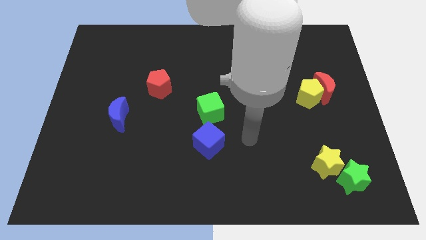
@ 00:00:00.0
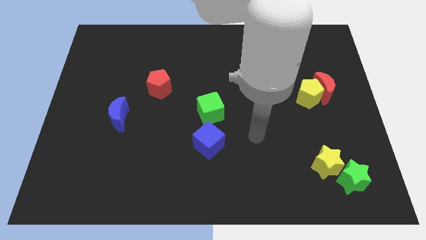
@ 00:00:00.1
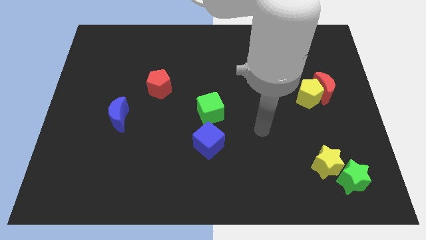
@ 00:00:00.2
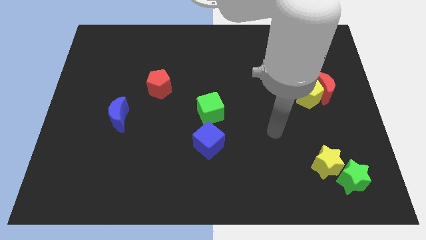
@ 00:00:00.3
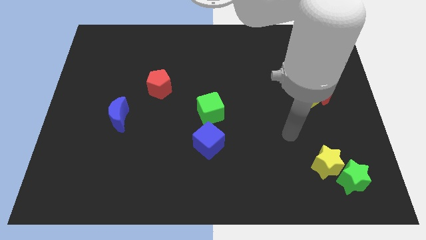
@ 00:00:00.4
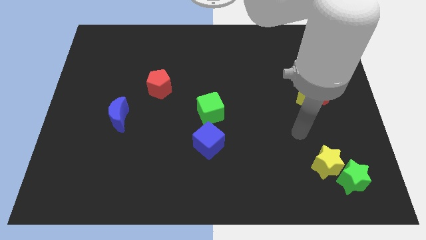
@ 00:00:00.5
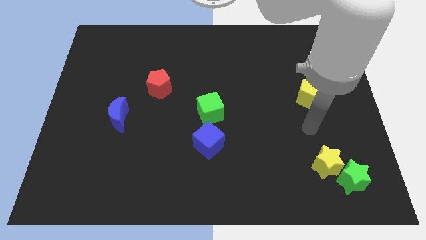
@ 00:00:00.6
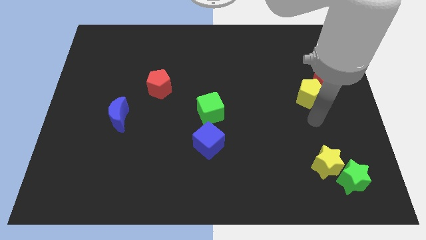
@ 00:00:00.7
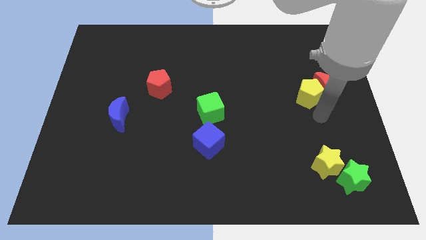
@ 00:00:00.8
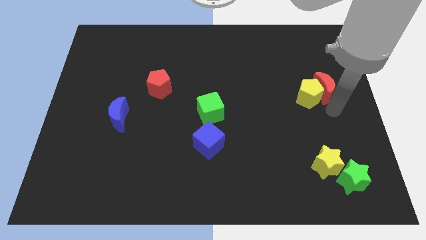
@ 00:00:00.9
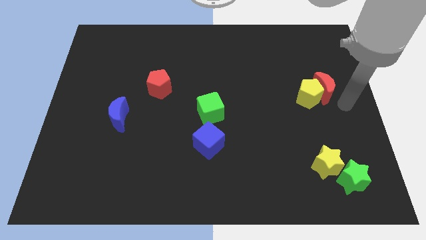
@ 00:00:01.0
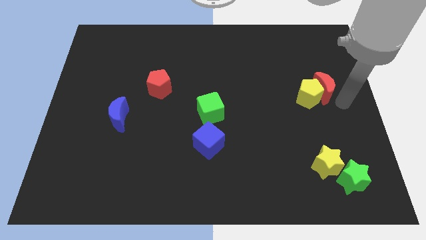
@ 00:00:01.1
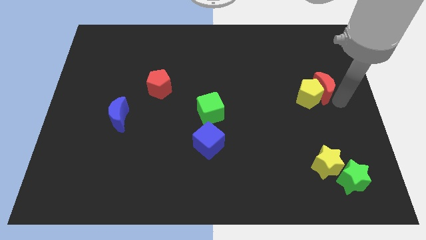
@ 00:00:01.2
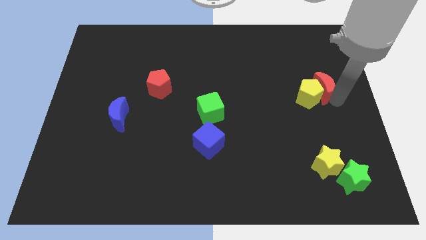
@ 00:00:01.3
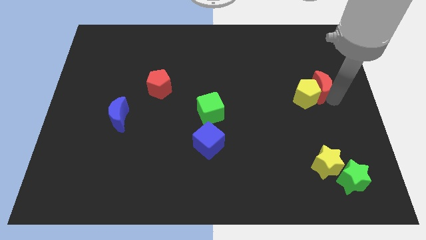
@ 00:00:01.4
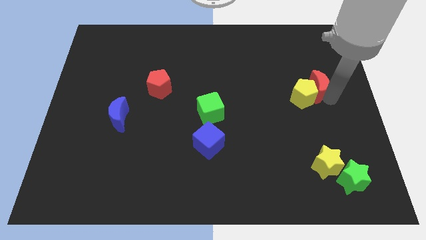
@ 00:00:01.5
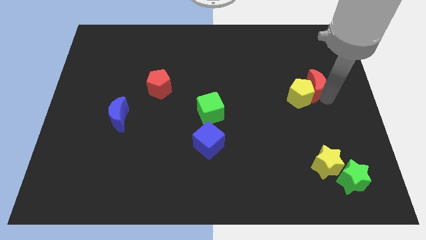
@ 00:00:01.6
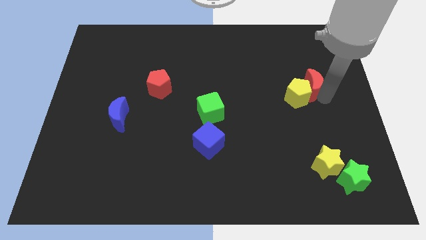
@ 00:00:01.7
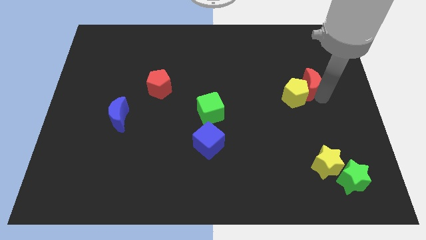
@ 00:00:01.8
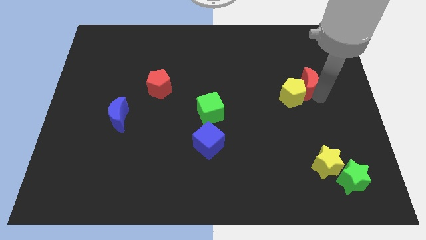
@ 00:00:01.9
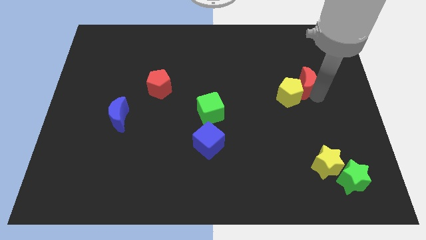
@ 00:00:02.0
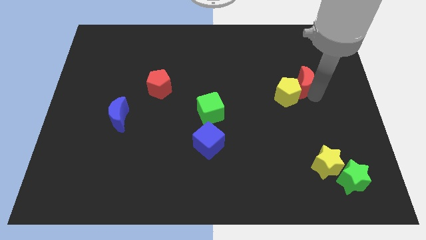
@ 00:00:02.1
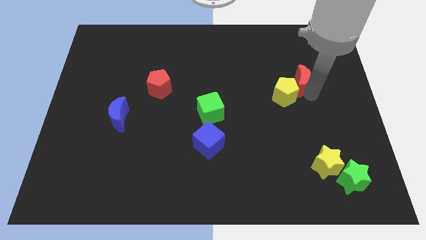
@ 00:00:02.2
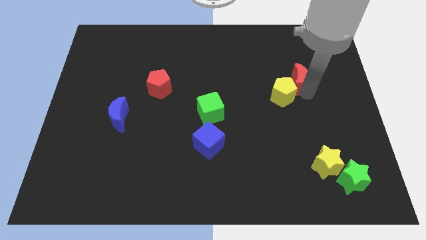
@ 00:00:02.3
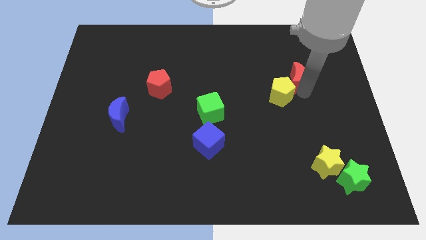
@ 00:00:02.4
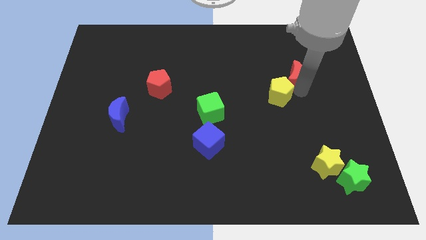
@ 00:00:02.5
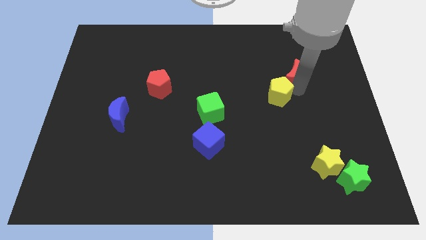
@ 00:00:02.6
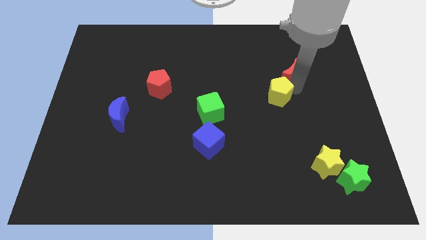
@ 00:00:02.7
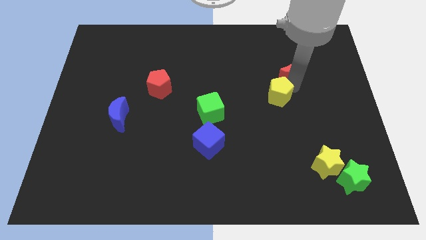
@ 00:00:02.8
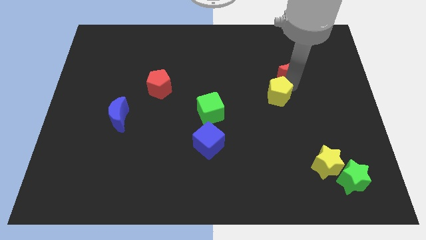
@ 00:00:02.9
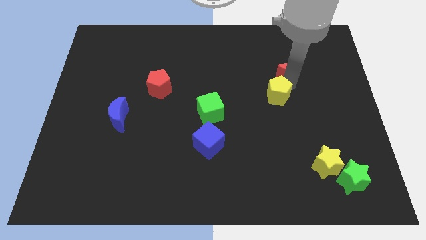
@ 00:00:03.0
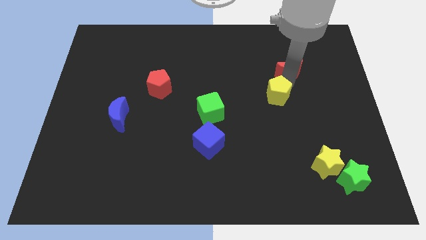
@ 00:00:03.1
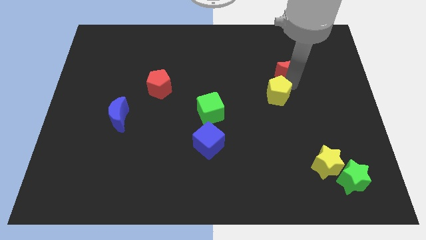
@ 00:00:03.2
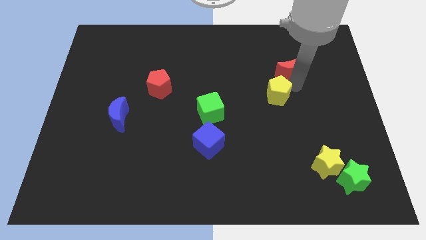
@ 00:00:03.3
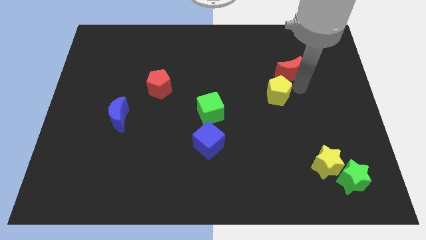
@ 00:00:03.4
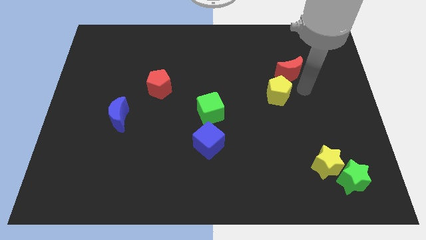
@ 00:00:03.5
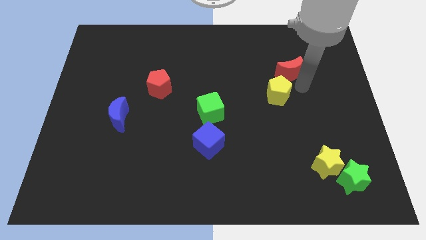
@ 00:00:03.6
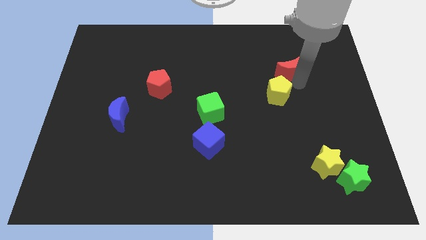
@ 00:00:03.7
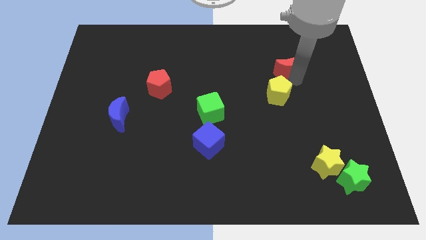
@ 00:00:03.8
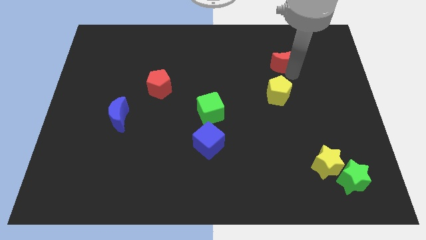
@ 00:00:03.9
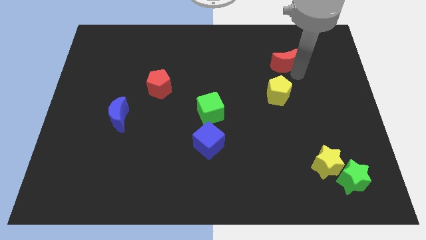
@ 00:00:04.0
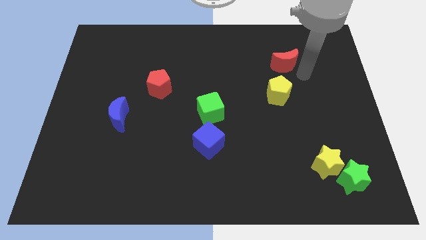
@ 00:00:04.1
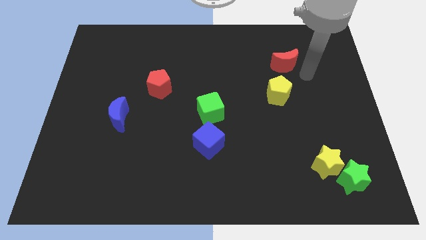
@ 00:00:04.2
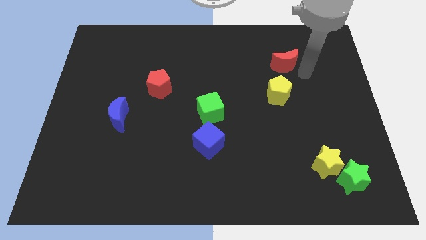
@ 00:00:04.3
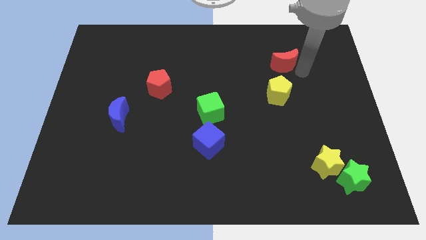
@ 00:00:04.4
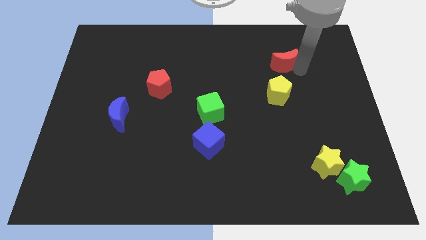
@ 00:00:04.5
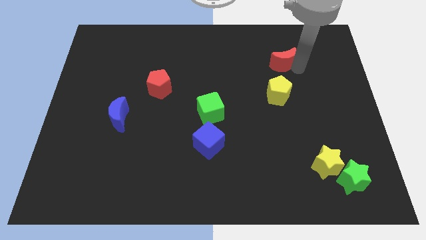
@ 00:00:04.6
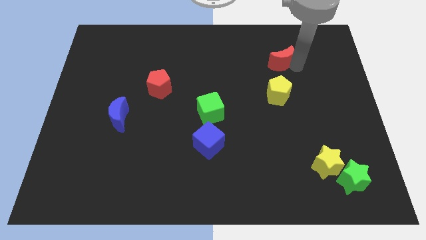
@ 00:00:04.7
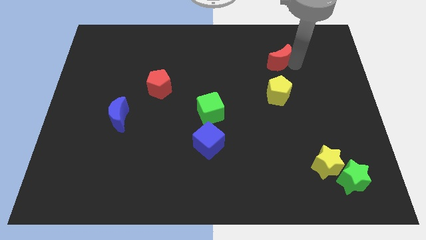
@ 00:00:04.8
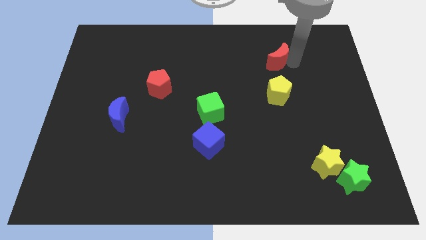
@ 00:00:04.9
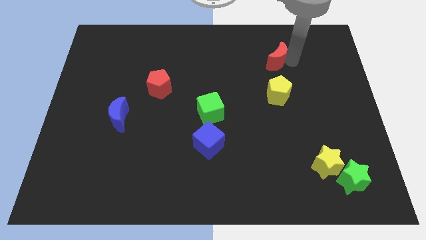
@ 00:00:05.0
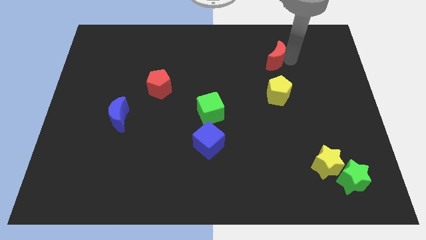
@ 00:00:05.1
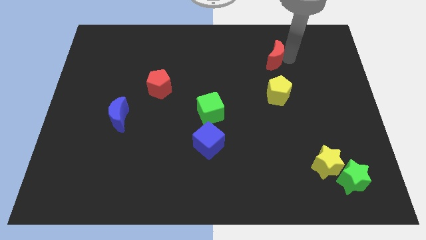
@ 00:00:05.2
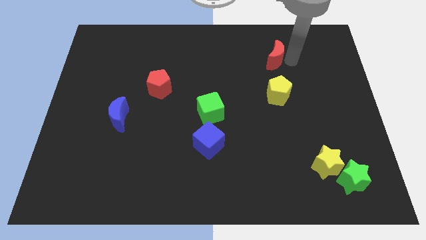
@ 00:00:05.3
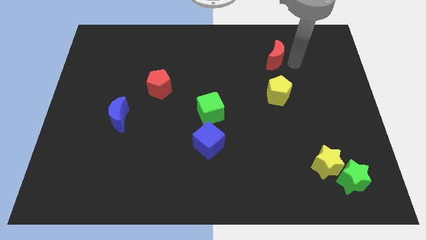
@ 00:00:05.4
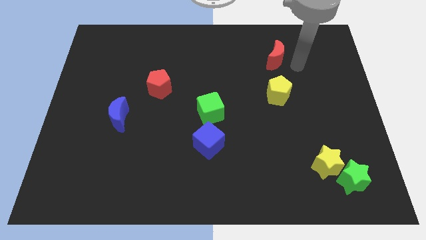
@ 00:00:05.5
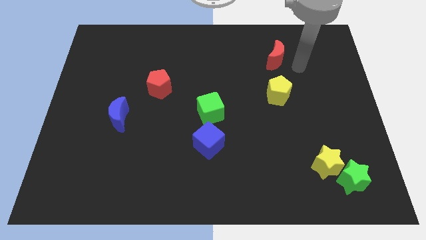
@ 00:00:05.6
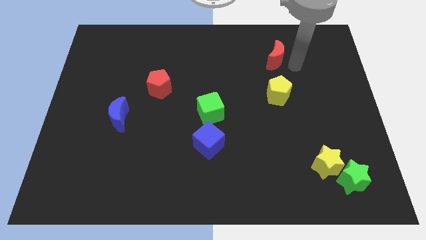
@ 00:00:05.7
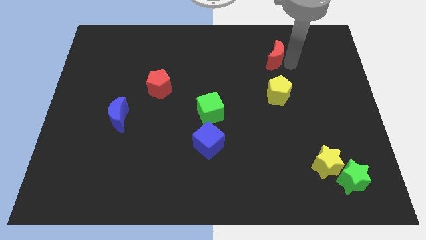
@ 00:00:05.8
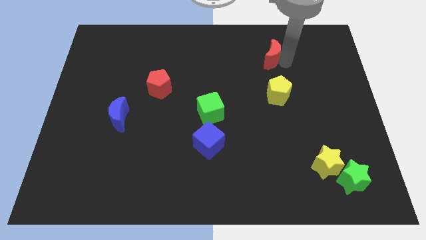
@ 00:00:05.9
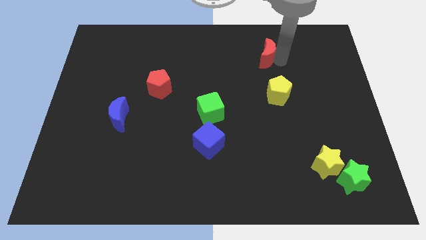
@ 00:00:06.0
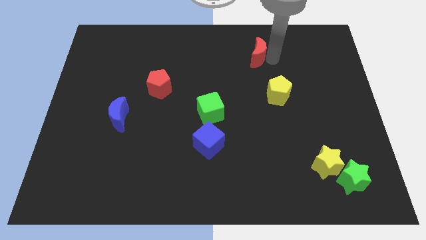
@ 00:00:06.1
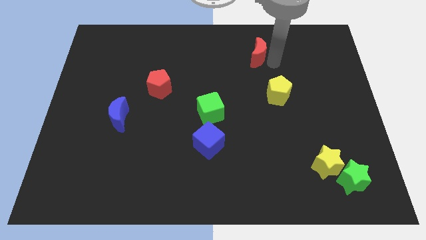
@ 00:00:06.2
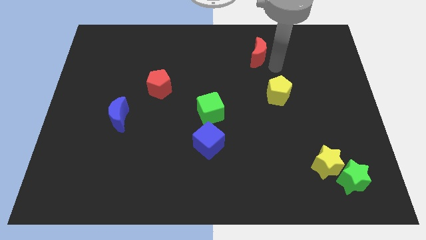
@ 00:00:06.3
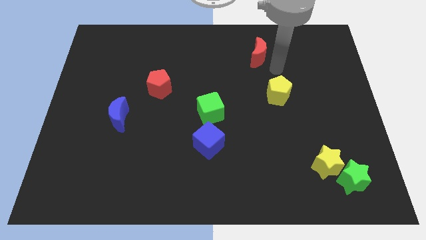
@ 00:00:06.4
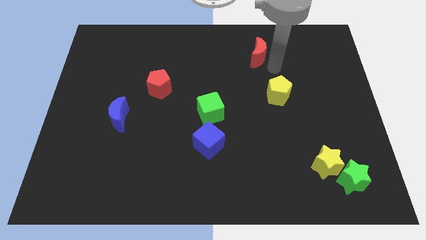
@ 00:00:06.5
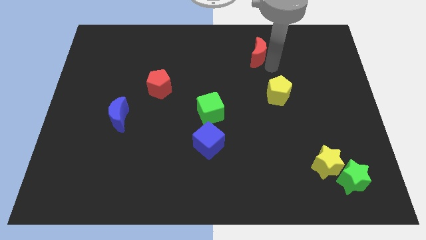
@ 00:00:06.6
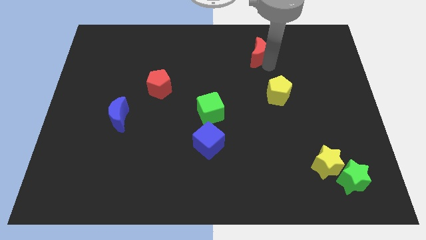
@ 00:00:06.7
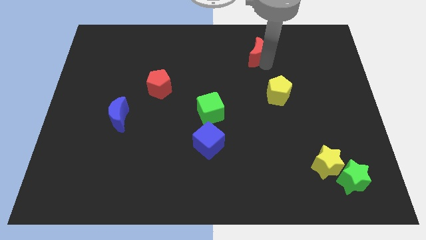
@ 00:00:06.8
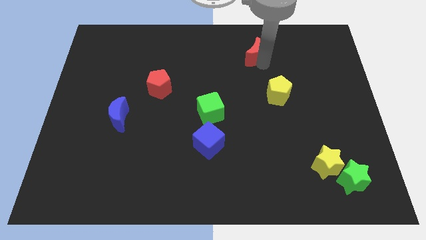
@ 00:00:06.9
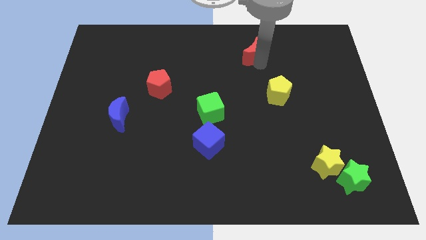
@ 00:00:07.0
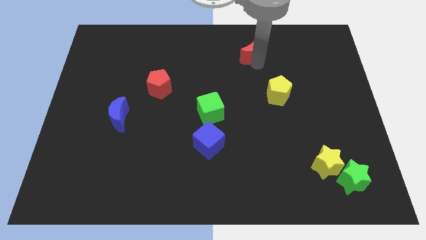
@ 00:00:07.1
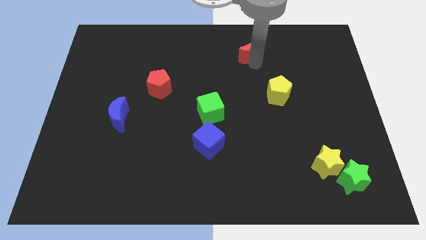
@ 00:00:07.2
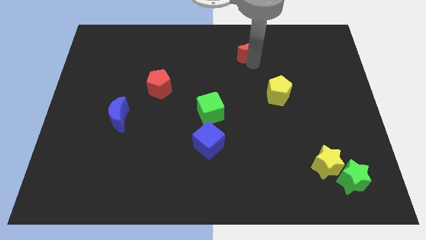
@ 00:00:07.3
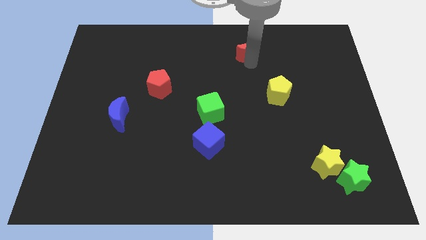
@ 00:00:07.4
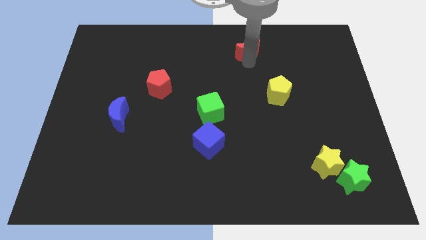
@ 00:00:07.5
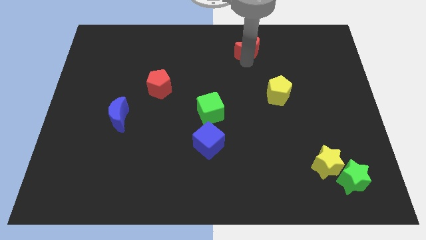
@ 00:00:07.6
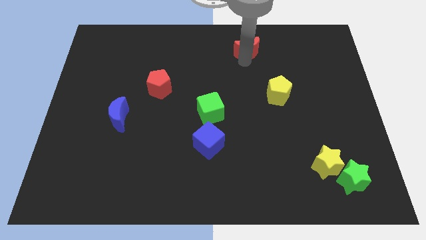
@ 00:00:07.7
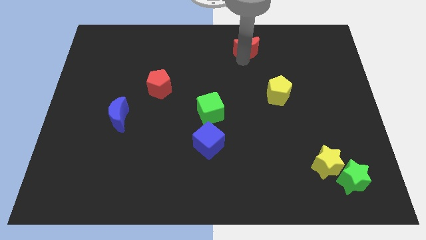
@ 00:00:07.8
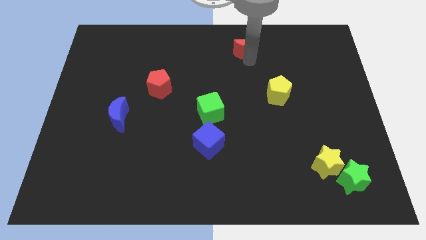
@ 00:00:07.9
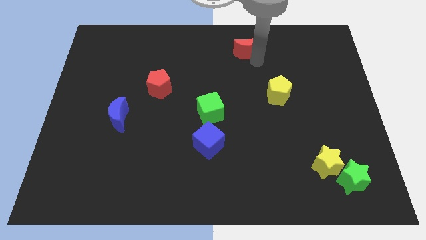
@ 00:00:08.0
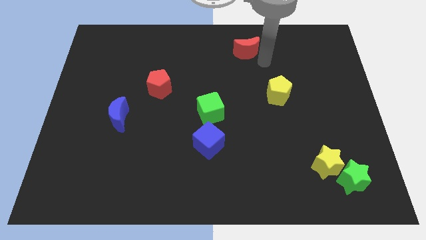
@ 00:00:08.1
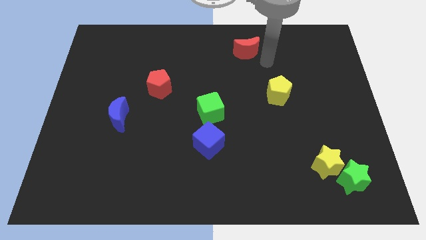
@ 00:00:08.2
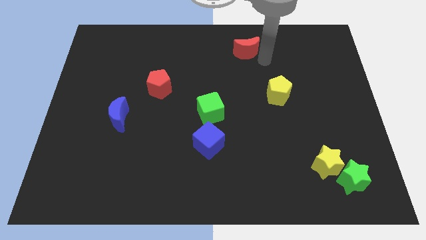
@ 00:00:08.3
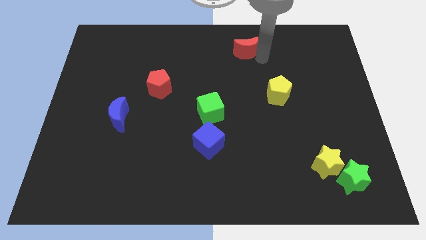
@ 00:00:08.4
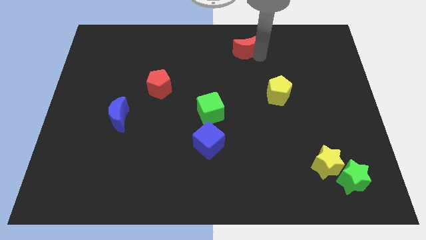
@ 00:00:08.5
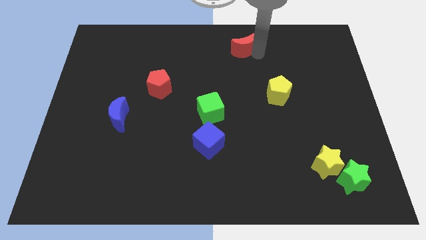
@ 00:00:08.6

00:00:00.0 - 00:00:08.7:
slide the red moon to the towards your base
